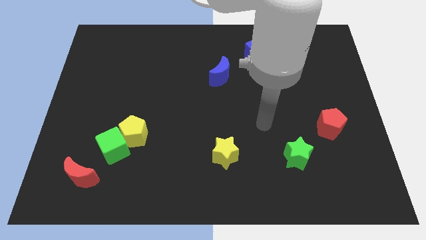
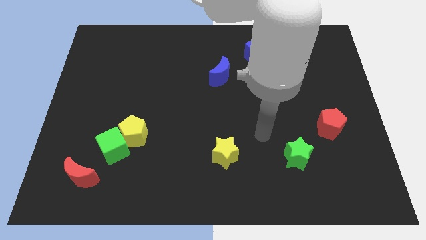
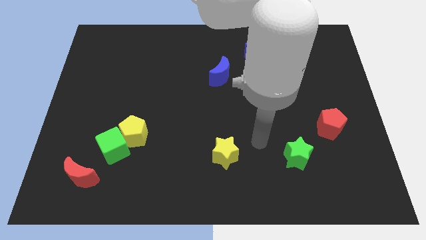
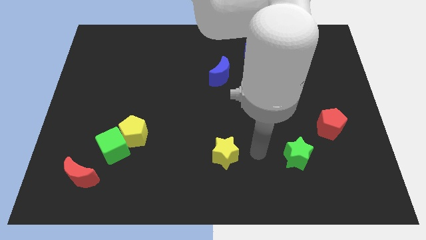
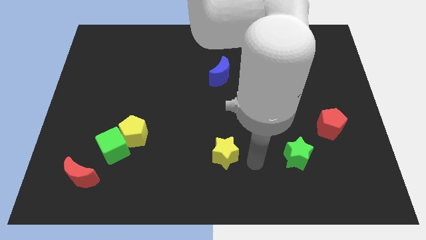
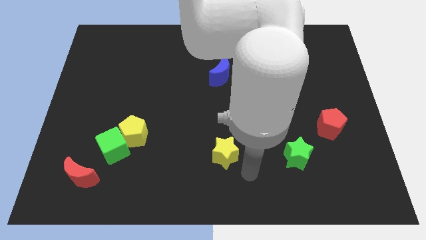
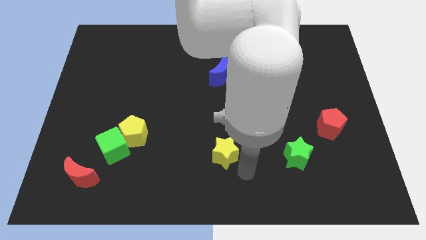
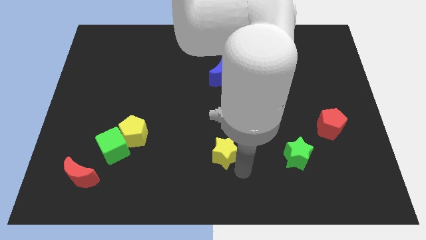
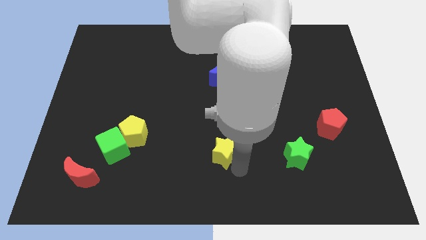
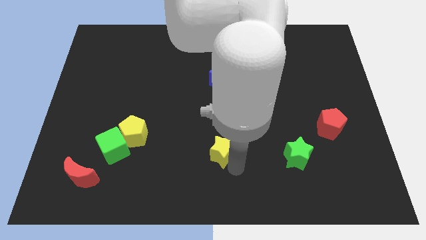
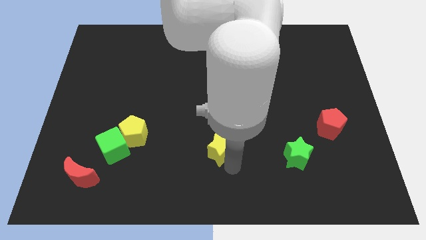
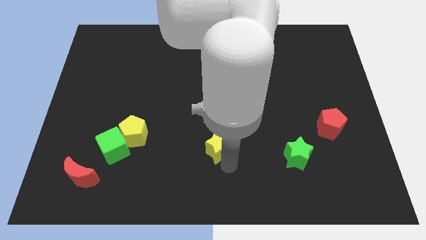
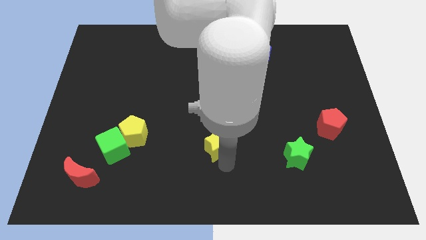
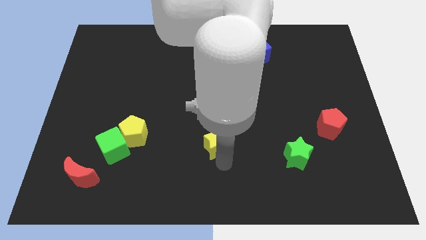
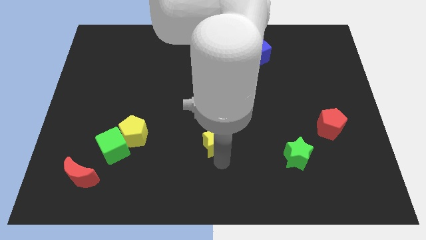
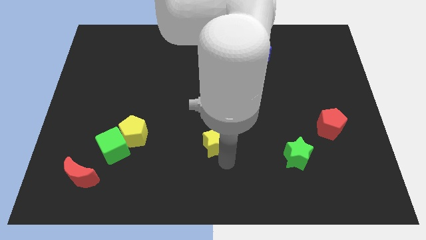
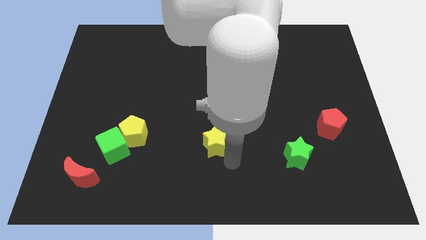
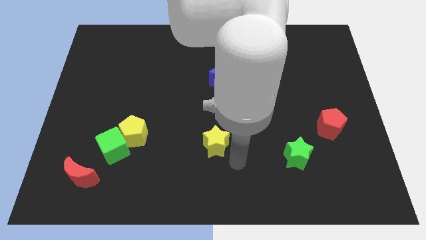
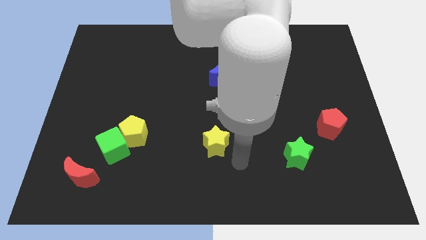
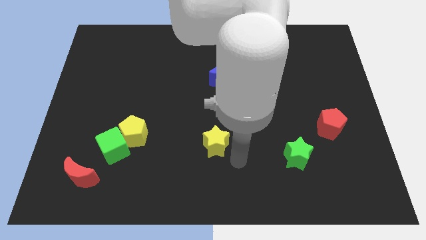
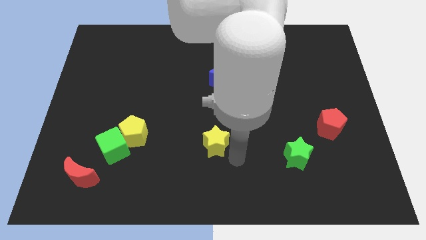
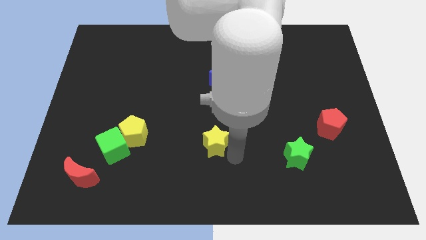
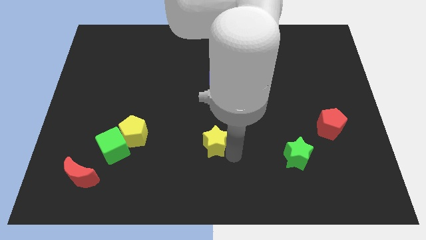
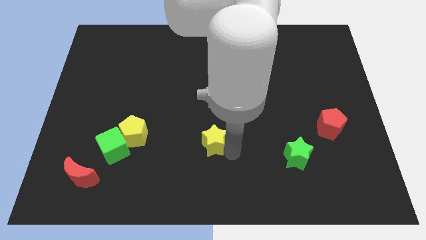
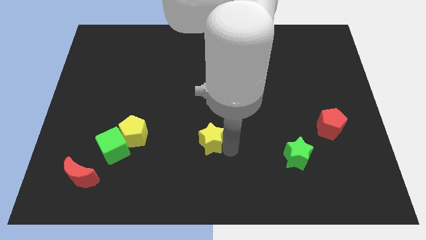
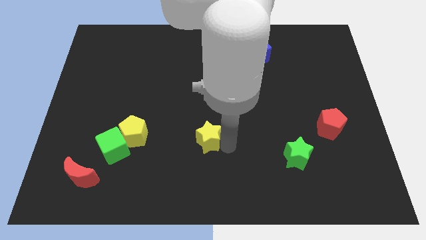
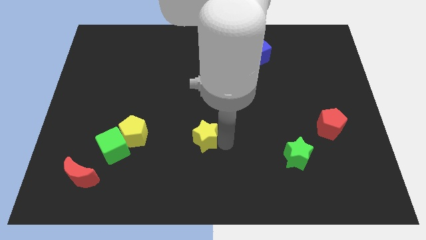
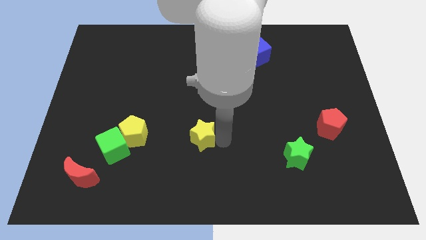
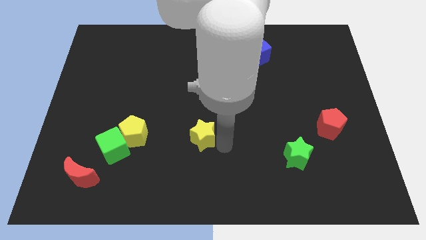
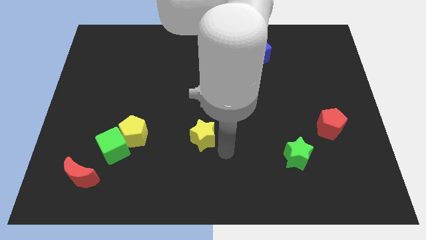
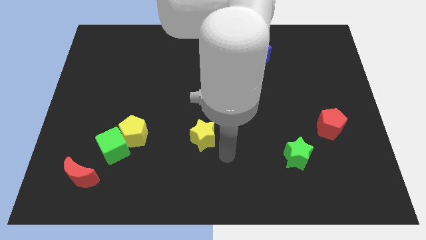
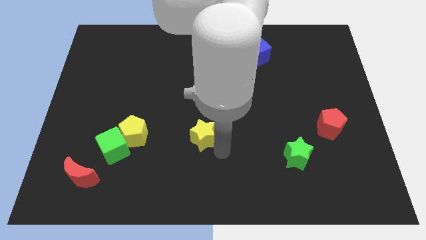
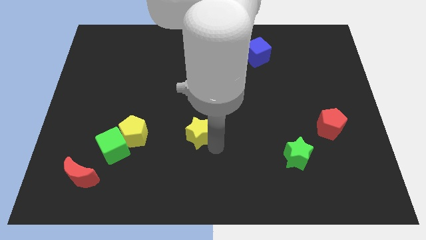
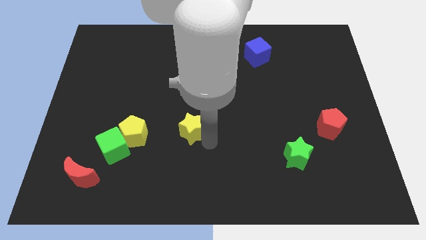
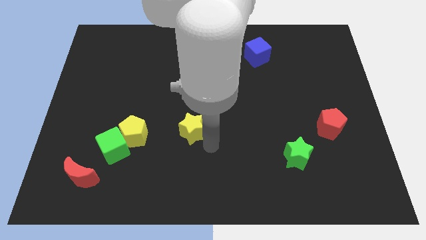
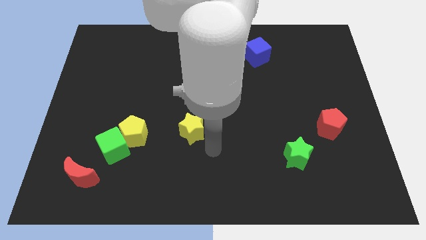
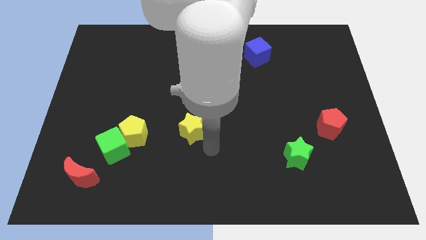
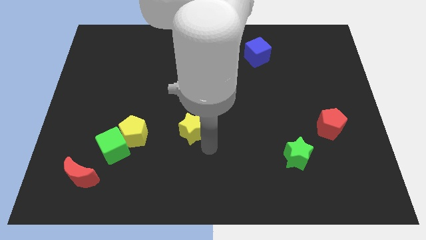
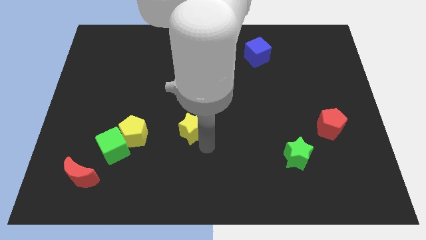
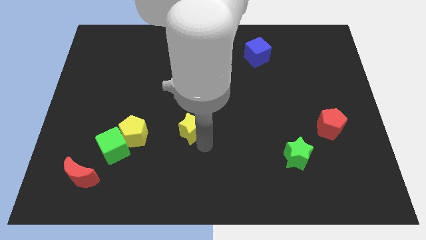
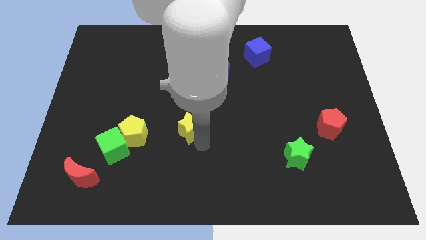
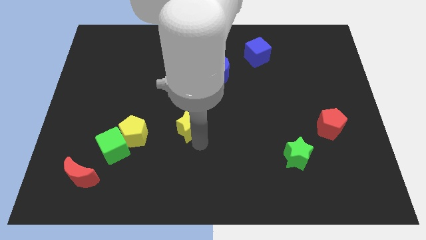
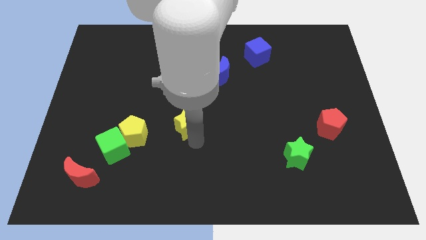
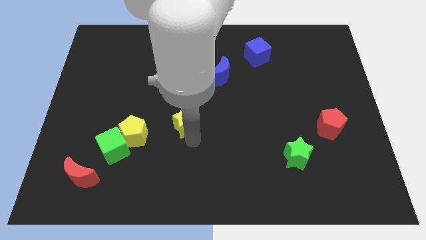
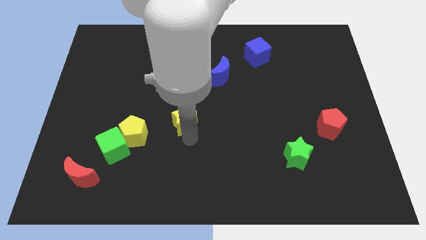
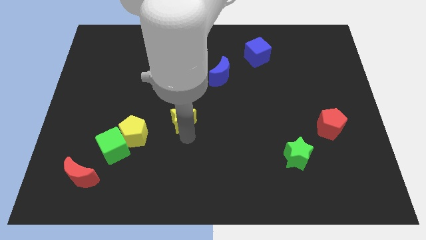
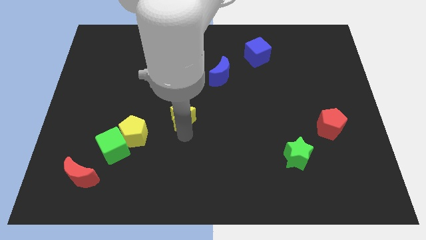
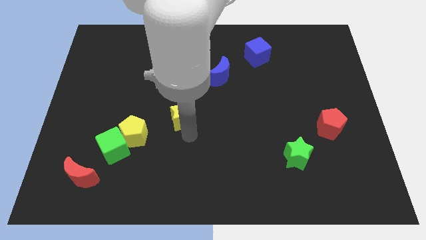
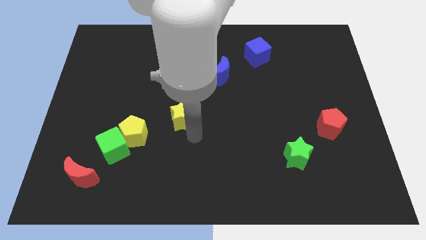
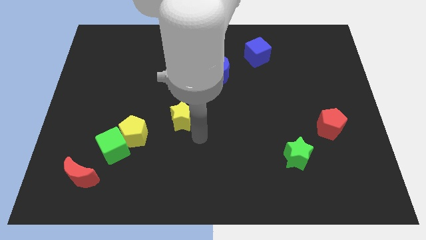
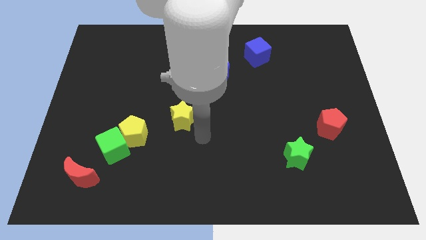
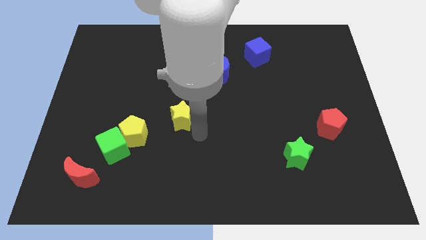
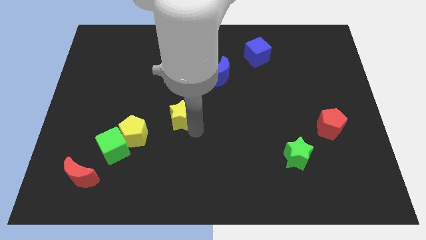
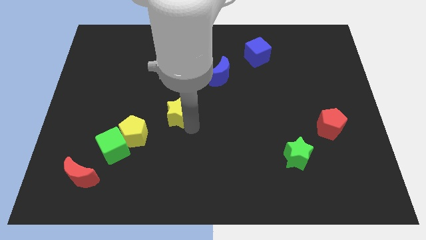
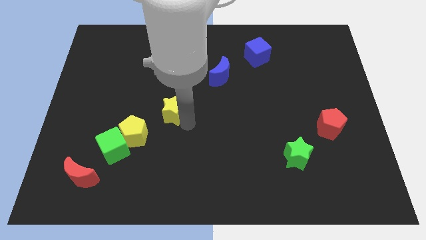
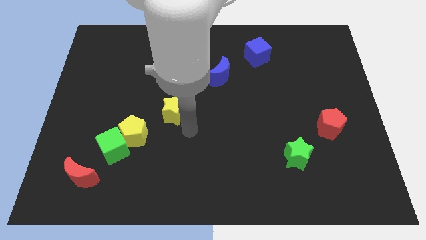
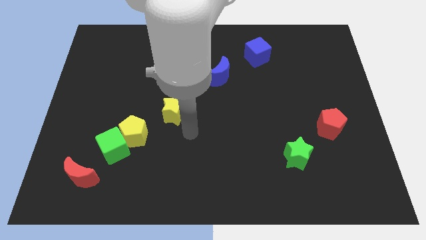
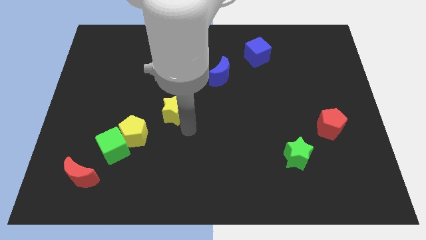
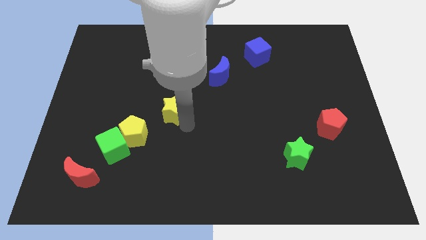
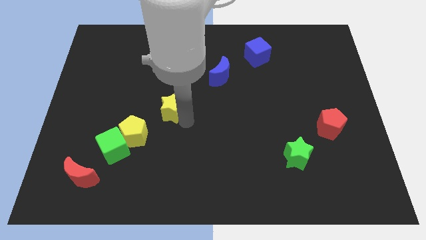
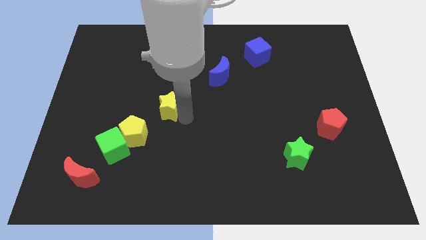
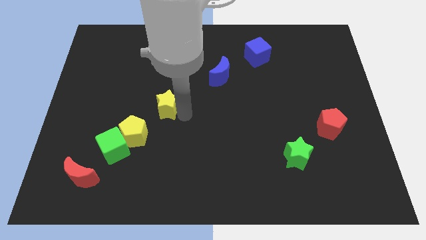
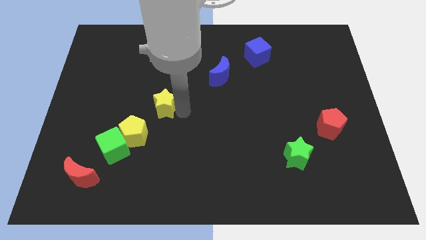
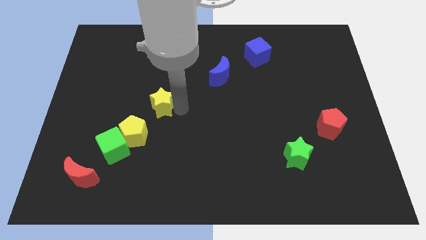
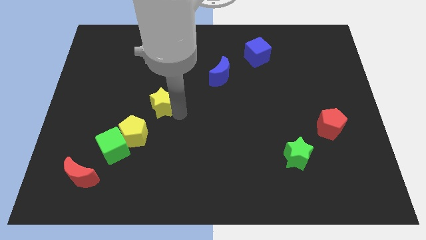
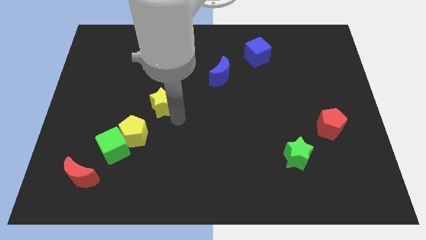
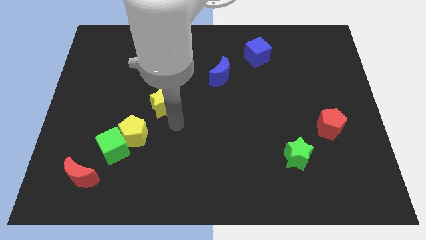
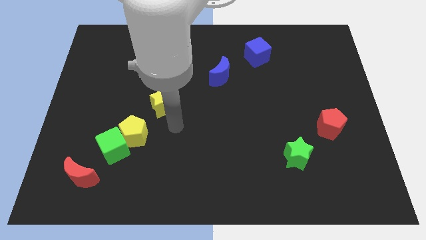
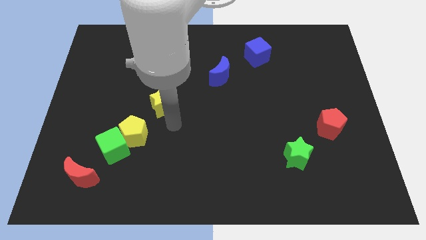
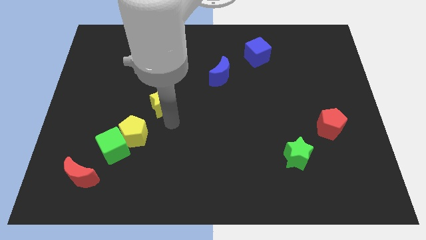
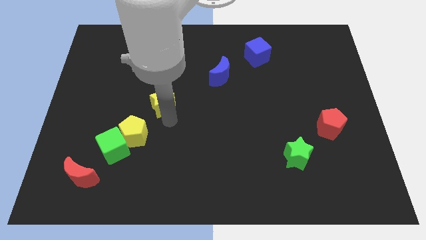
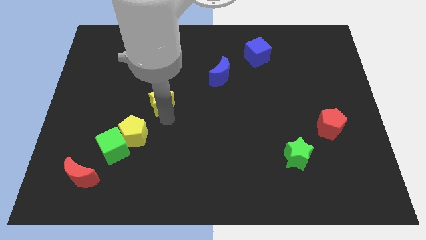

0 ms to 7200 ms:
move the yellow star up and to the left diagonally

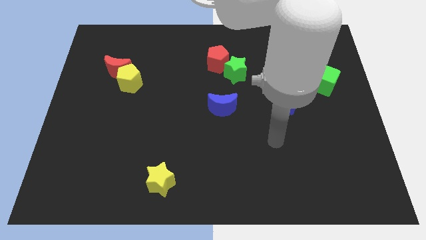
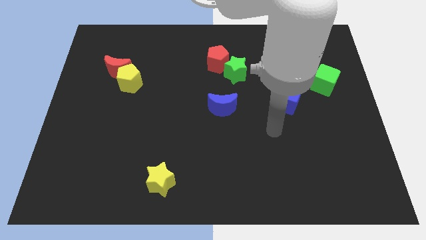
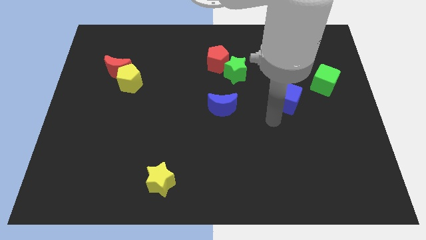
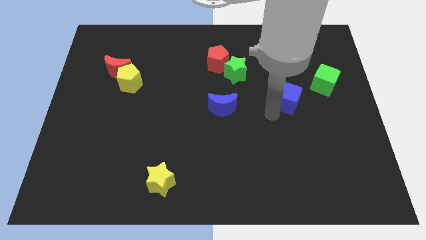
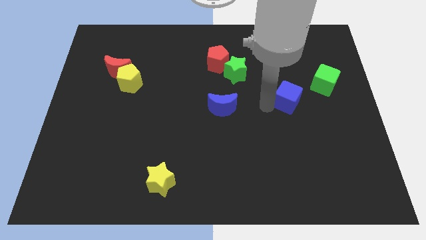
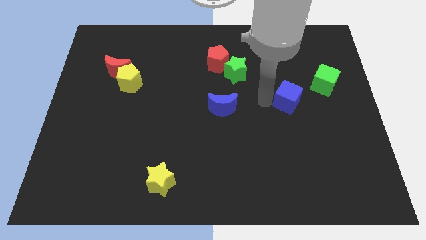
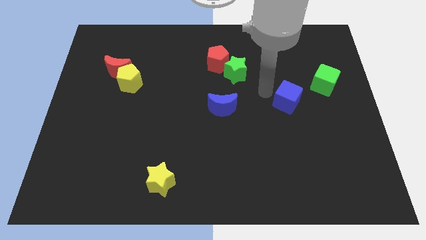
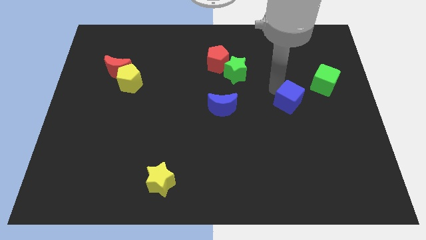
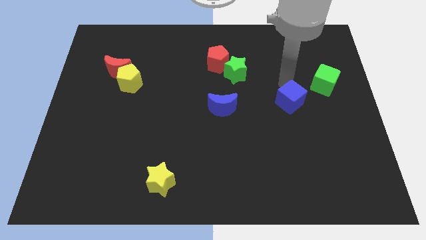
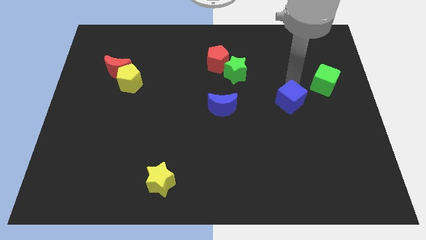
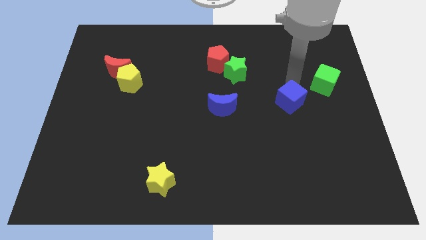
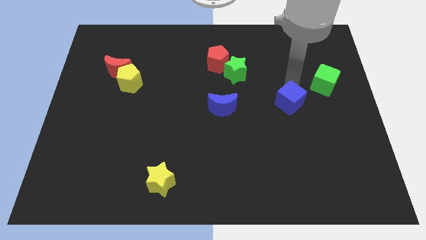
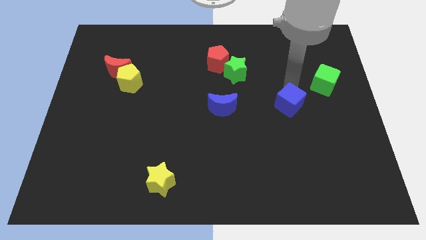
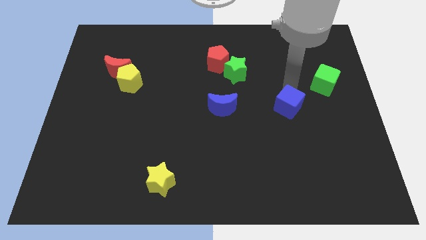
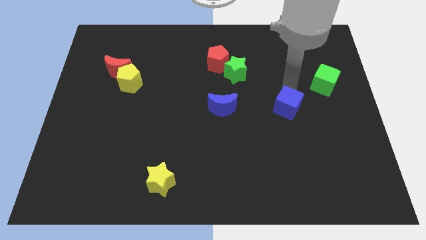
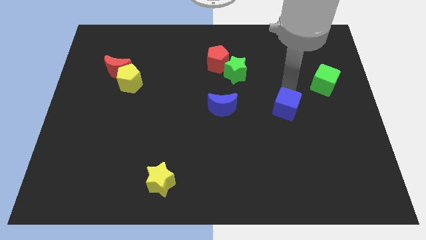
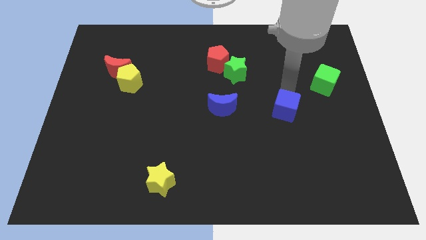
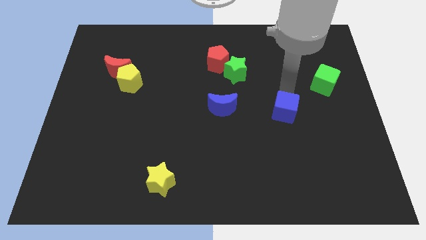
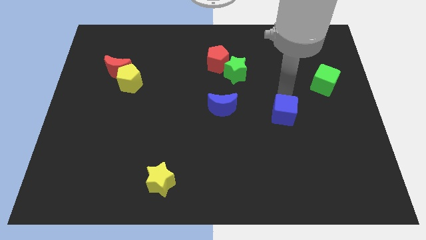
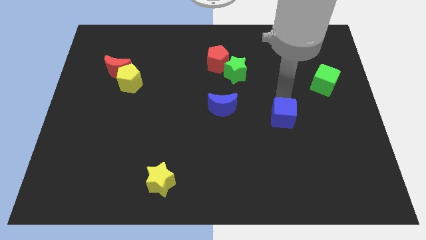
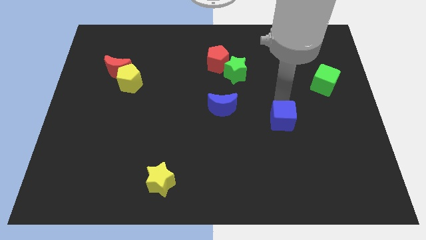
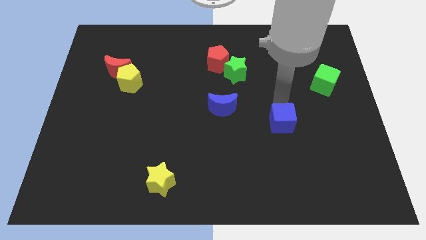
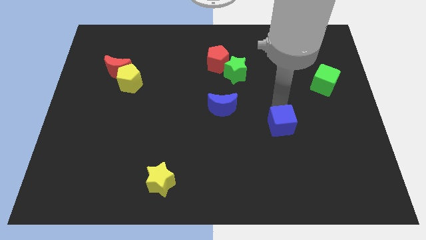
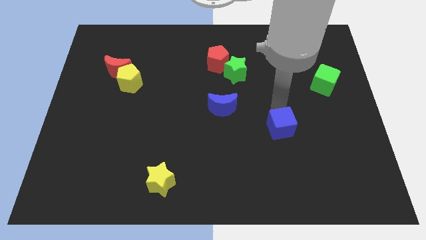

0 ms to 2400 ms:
push the blue cube a bit down
